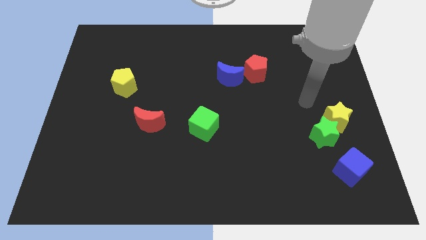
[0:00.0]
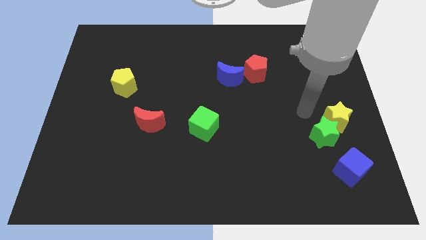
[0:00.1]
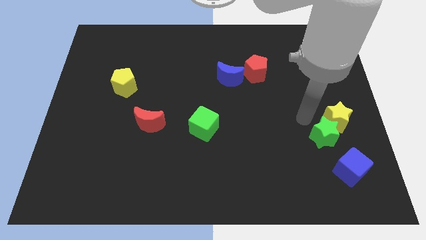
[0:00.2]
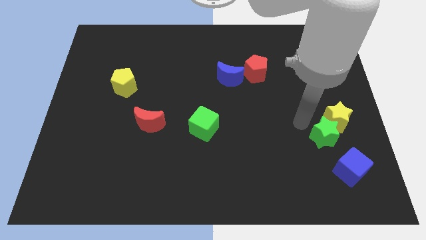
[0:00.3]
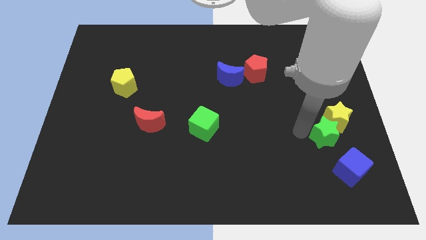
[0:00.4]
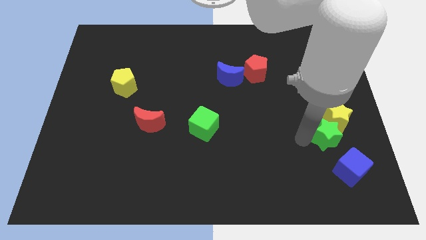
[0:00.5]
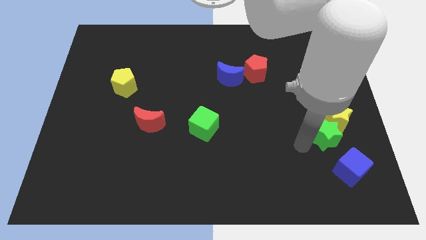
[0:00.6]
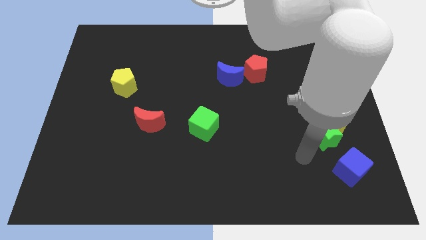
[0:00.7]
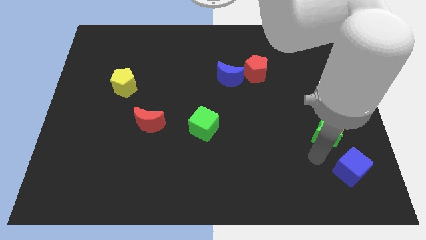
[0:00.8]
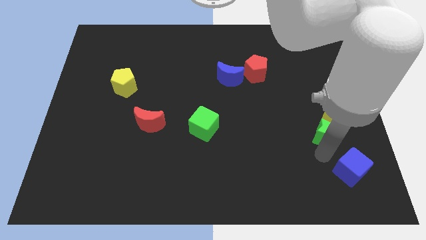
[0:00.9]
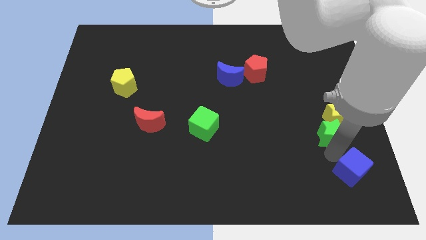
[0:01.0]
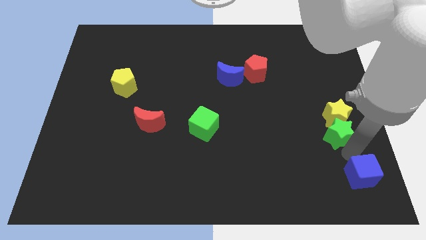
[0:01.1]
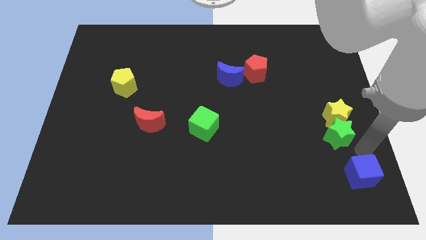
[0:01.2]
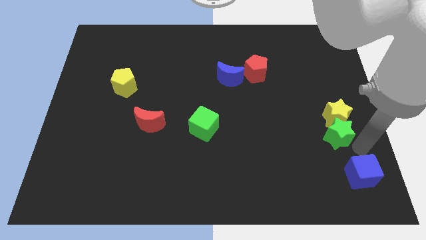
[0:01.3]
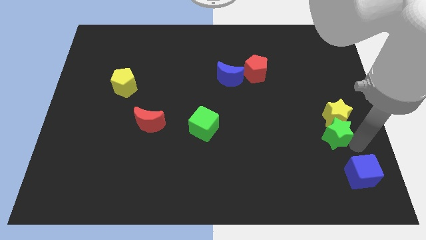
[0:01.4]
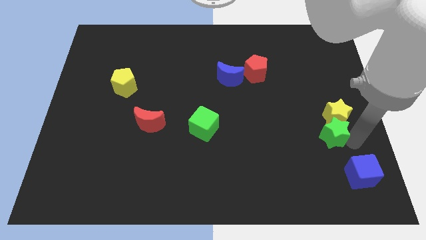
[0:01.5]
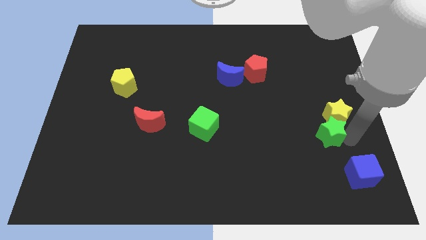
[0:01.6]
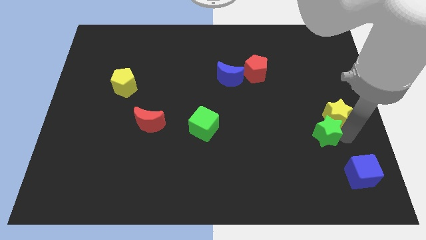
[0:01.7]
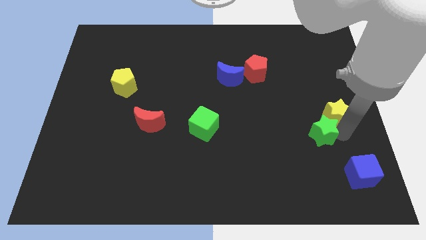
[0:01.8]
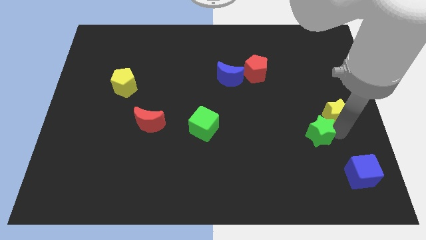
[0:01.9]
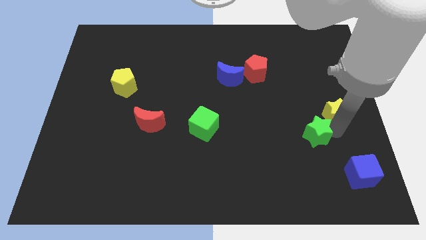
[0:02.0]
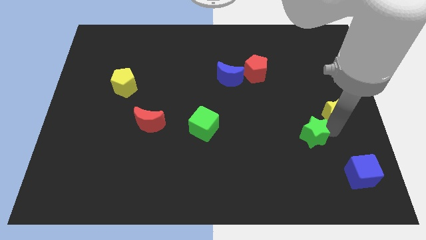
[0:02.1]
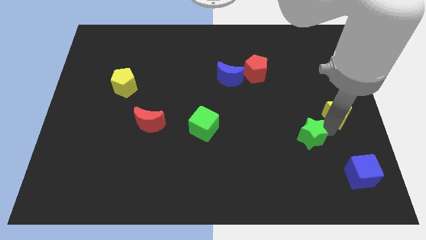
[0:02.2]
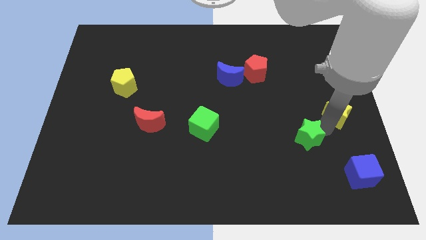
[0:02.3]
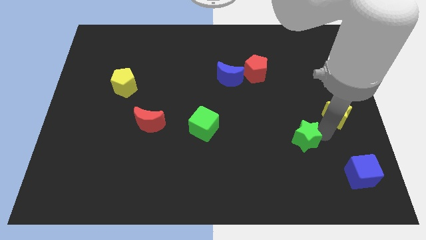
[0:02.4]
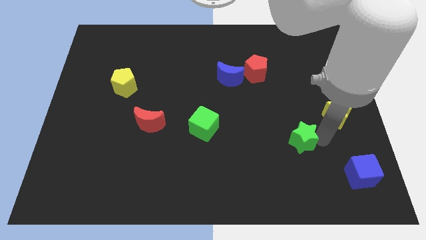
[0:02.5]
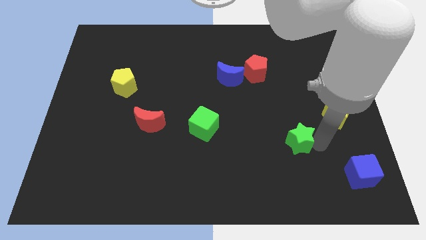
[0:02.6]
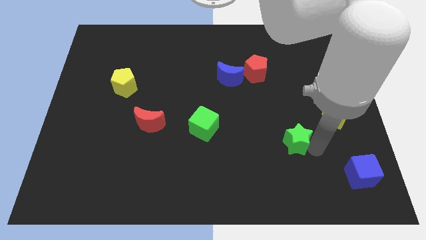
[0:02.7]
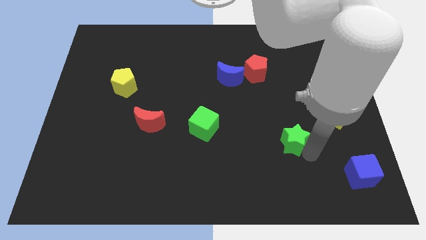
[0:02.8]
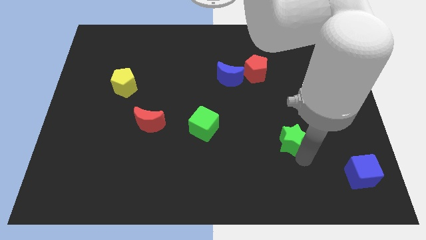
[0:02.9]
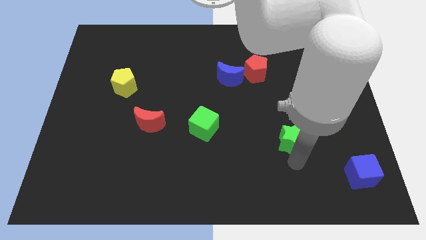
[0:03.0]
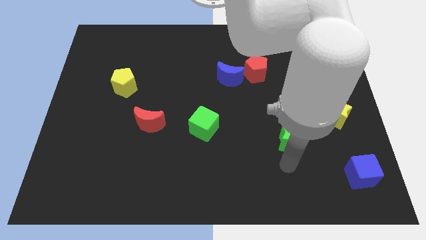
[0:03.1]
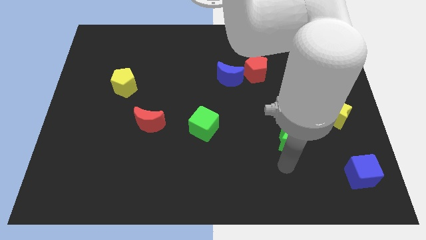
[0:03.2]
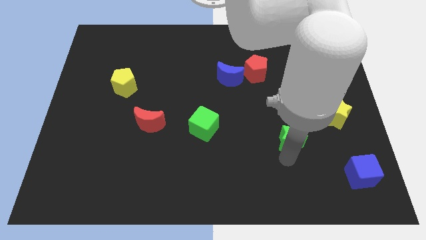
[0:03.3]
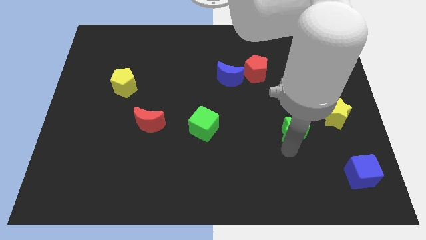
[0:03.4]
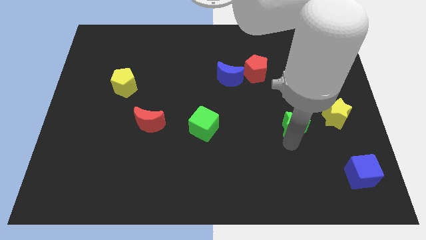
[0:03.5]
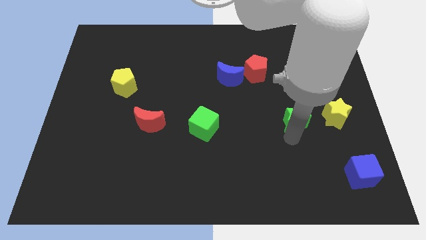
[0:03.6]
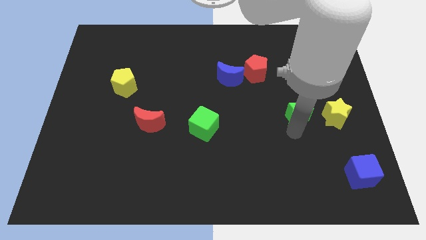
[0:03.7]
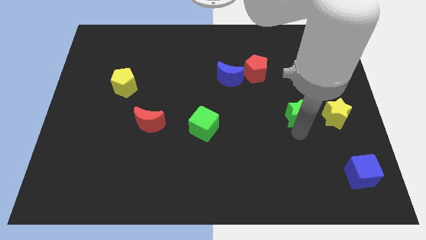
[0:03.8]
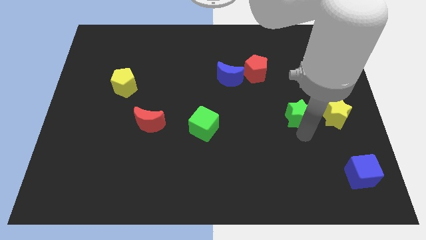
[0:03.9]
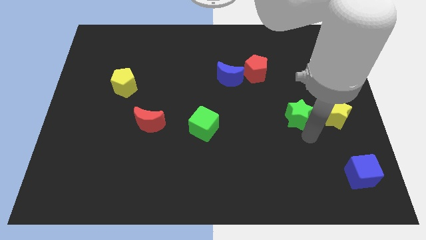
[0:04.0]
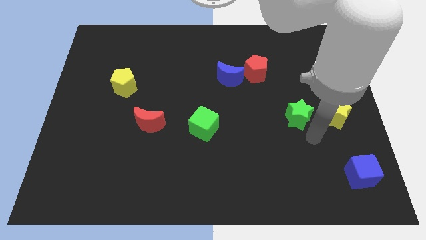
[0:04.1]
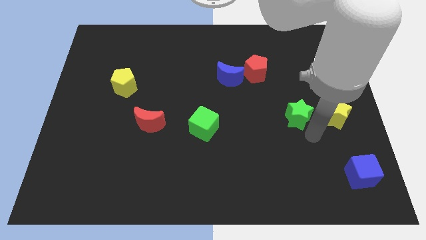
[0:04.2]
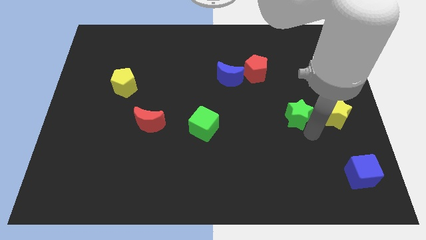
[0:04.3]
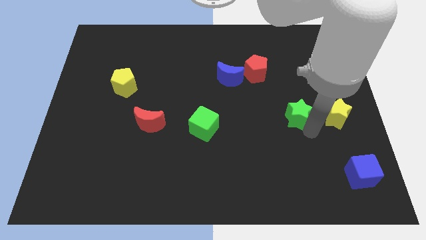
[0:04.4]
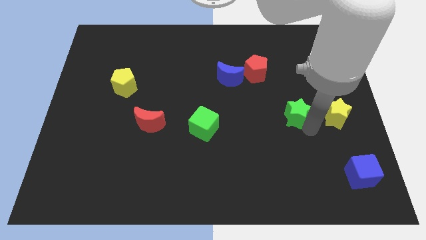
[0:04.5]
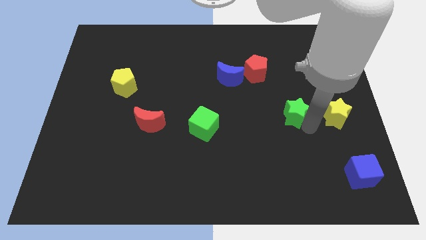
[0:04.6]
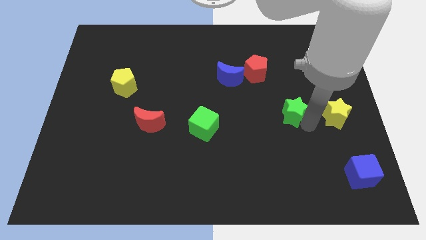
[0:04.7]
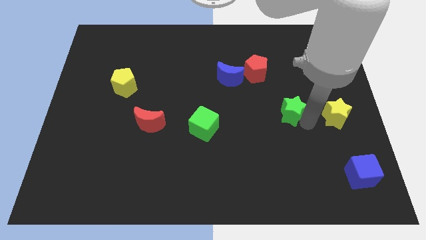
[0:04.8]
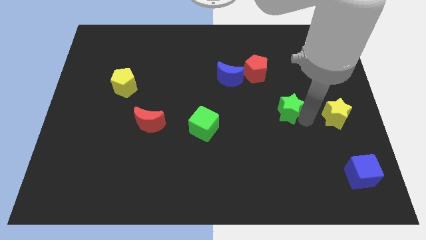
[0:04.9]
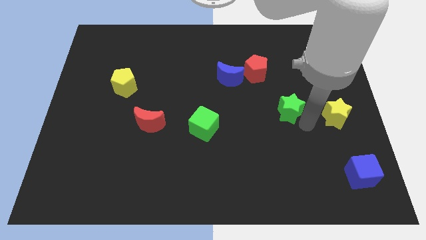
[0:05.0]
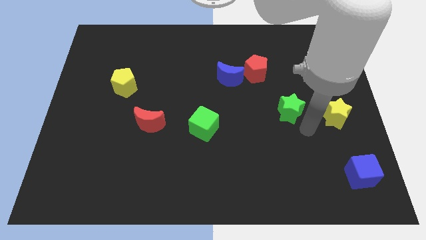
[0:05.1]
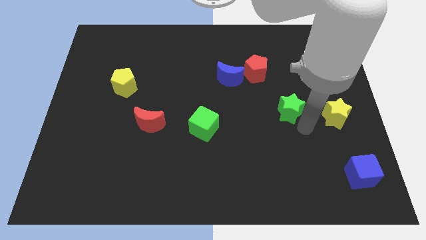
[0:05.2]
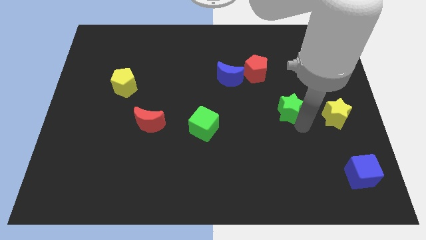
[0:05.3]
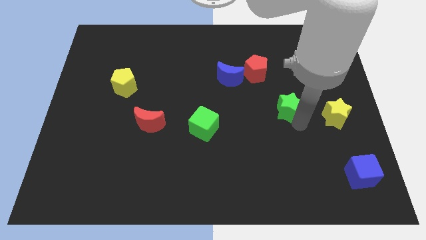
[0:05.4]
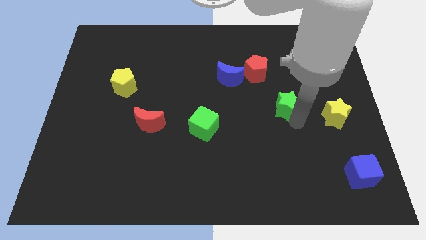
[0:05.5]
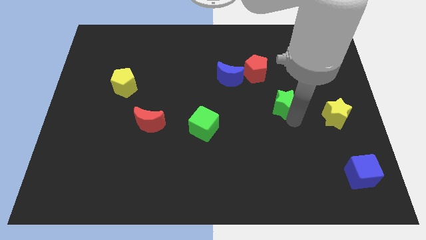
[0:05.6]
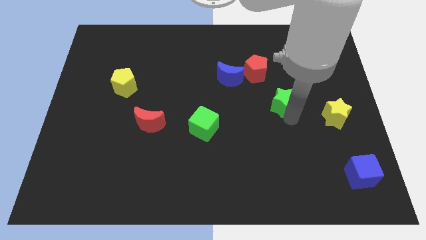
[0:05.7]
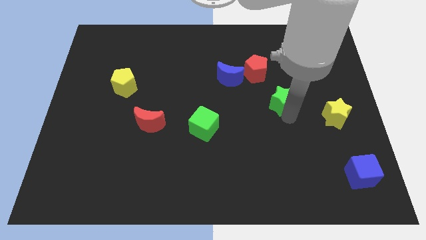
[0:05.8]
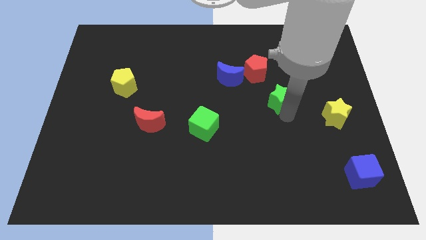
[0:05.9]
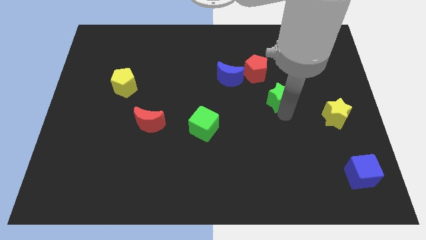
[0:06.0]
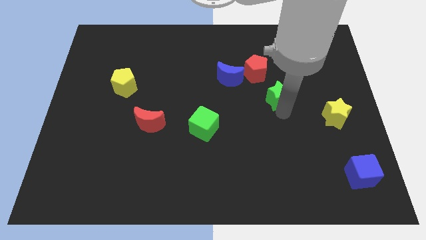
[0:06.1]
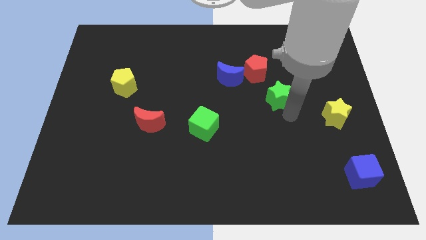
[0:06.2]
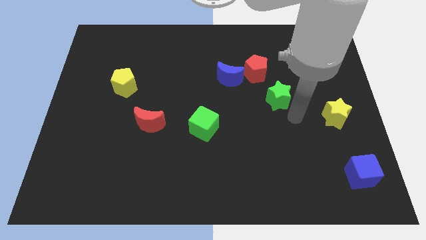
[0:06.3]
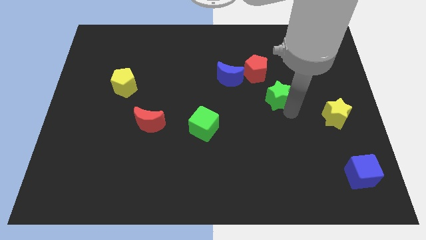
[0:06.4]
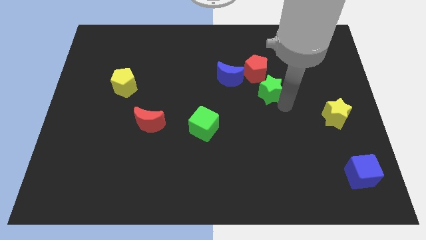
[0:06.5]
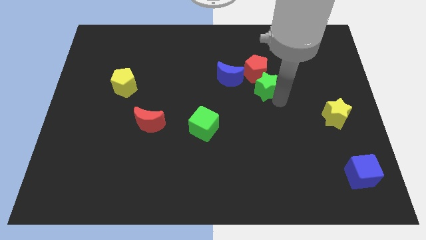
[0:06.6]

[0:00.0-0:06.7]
put the green star towards the red pentagon
